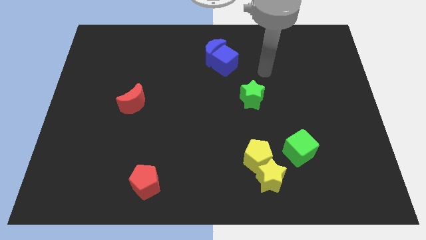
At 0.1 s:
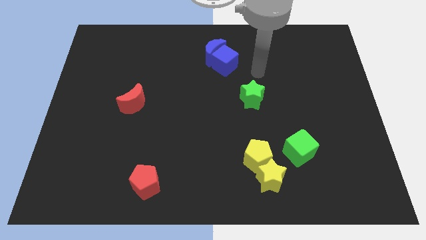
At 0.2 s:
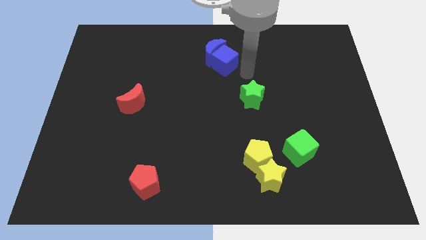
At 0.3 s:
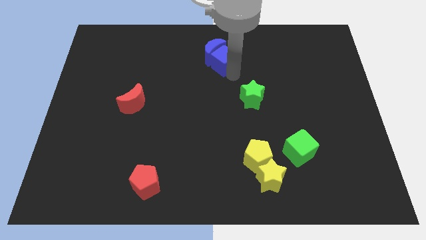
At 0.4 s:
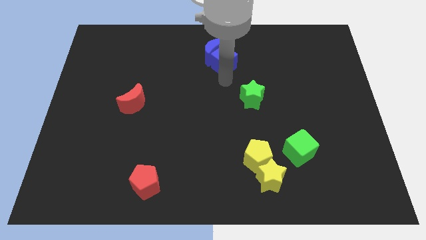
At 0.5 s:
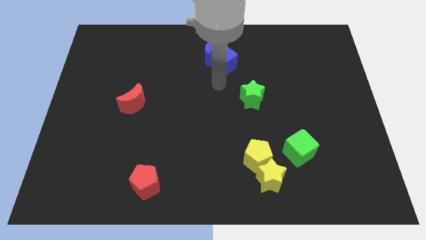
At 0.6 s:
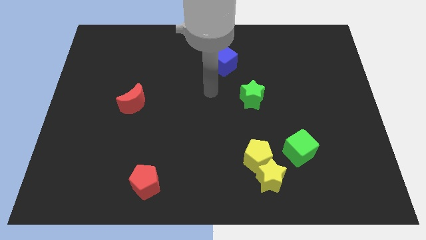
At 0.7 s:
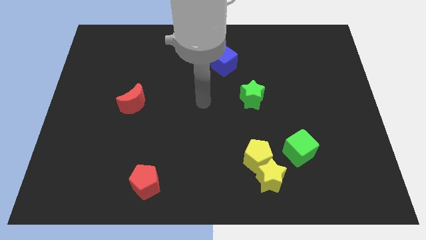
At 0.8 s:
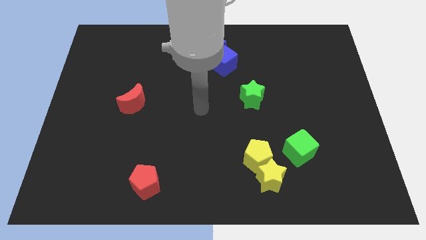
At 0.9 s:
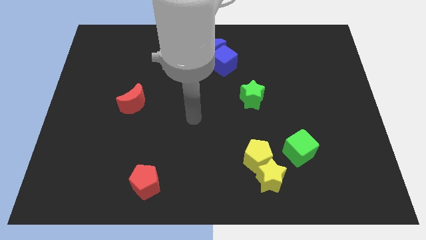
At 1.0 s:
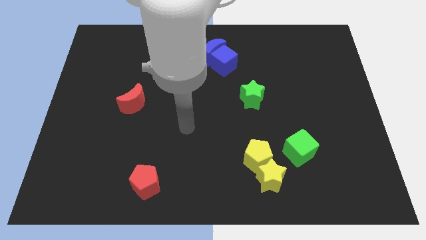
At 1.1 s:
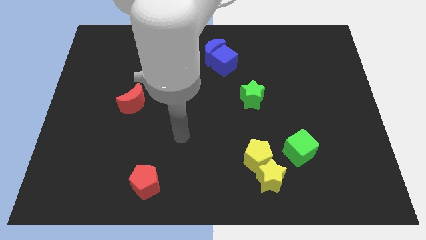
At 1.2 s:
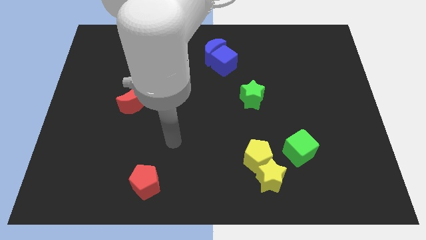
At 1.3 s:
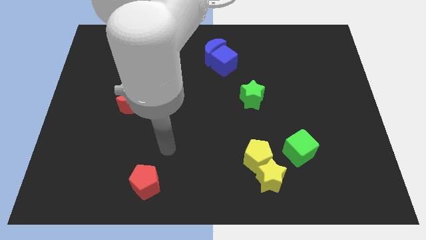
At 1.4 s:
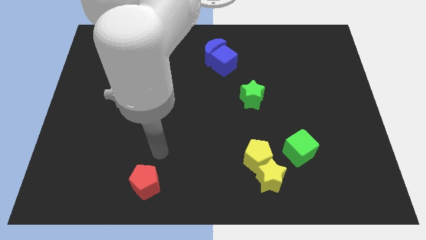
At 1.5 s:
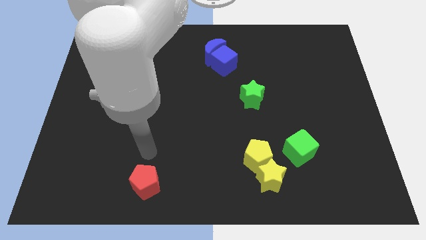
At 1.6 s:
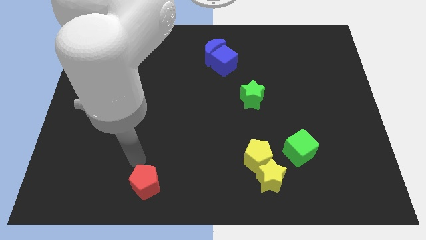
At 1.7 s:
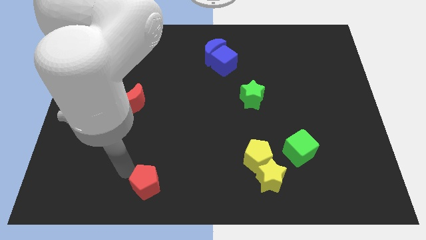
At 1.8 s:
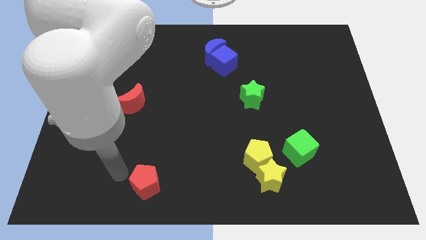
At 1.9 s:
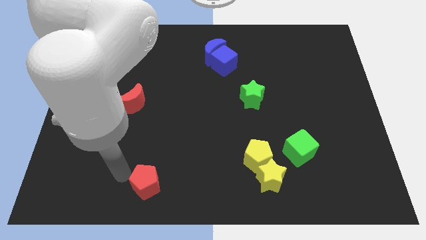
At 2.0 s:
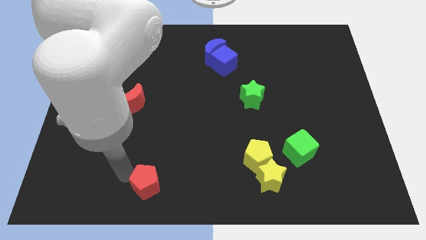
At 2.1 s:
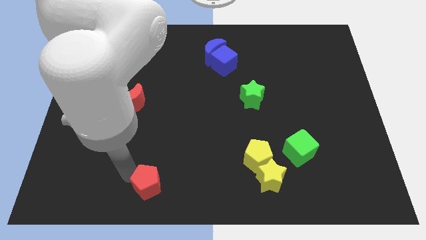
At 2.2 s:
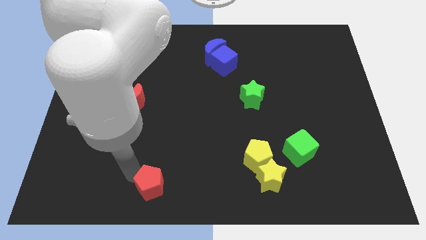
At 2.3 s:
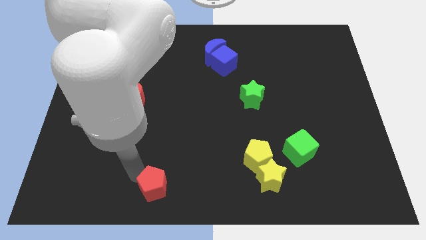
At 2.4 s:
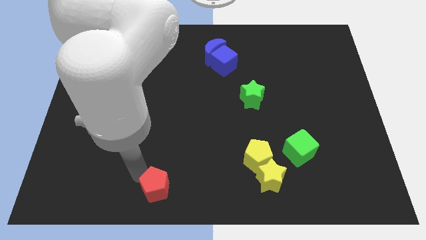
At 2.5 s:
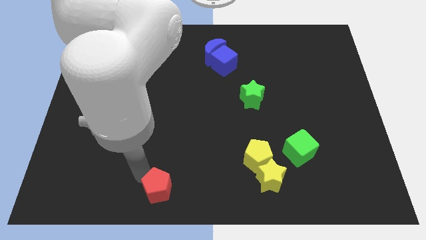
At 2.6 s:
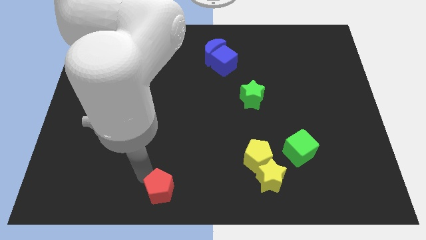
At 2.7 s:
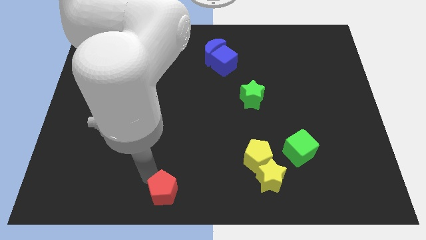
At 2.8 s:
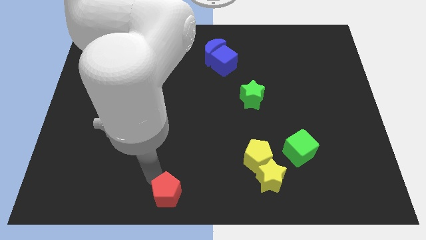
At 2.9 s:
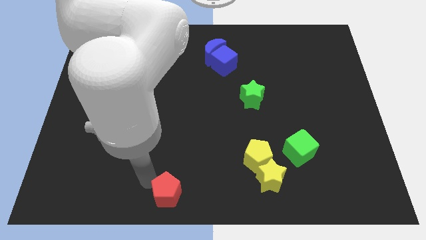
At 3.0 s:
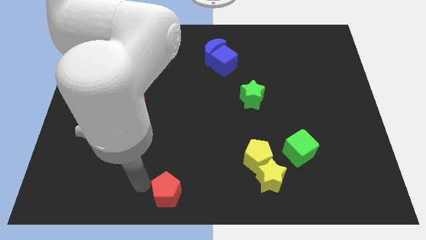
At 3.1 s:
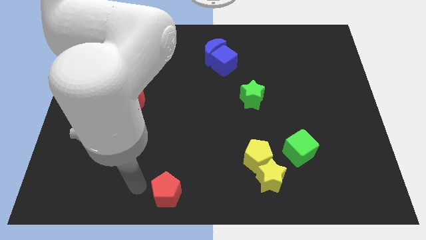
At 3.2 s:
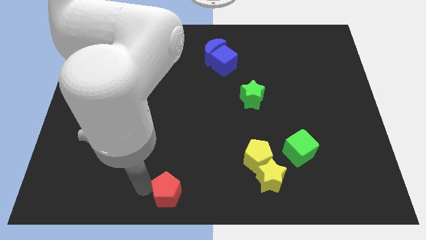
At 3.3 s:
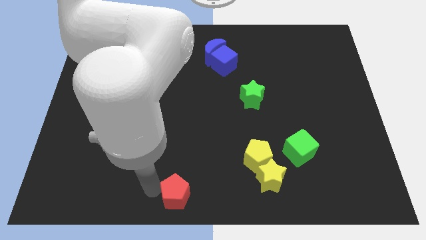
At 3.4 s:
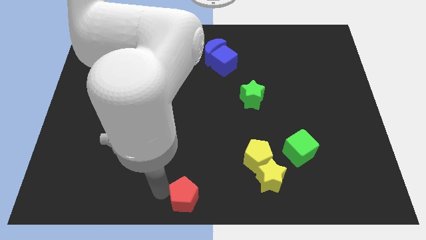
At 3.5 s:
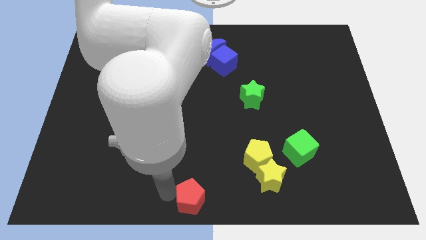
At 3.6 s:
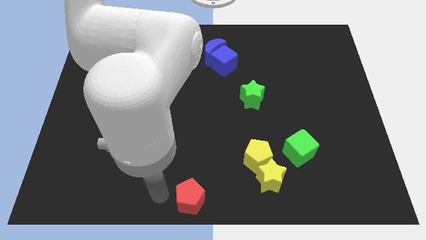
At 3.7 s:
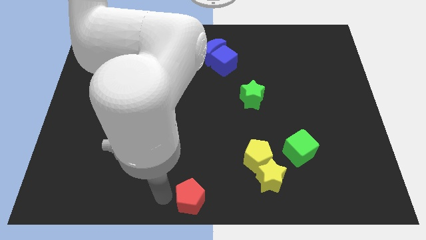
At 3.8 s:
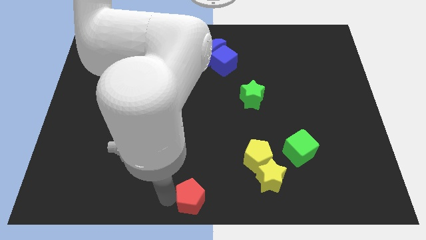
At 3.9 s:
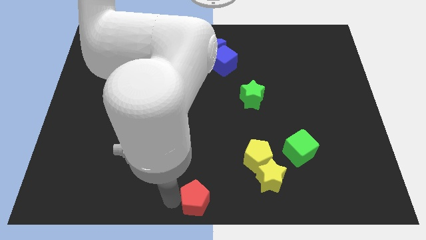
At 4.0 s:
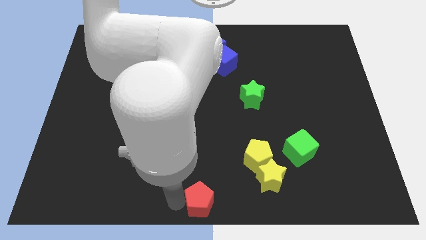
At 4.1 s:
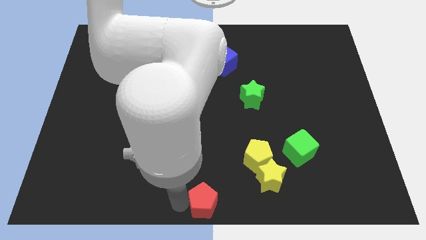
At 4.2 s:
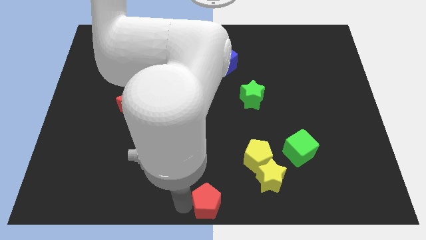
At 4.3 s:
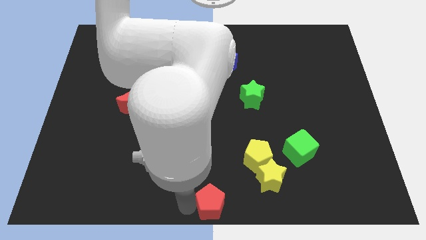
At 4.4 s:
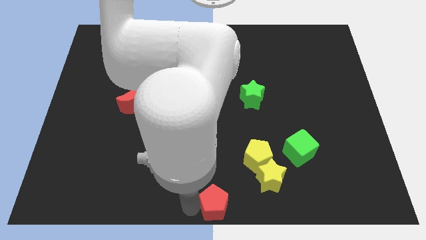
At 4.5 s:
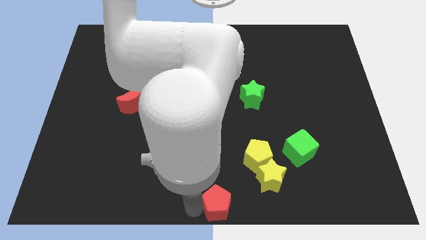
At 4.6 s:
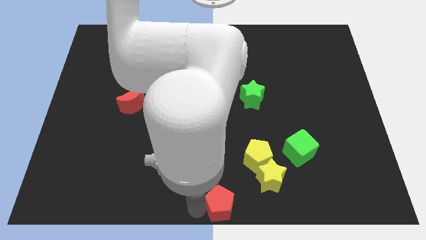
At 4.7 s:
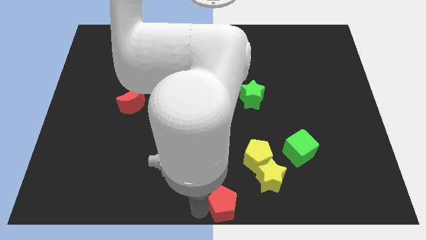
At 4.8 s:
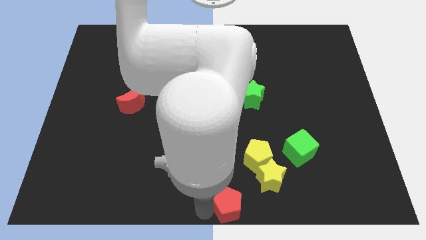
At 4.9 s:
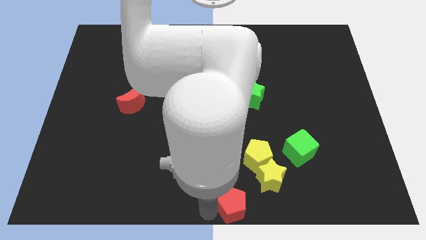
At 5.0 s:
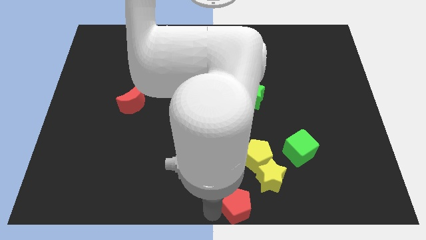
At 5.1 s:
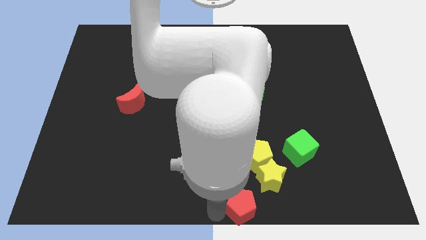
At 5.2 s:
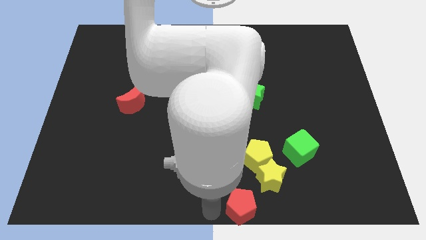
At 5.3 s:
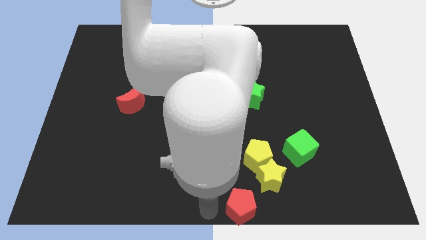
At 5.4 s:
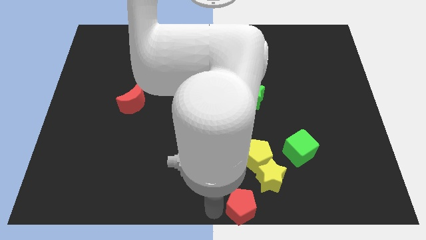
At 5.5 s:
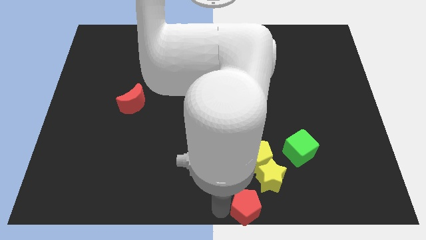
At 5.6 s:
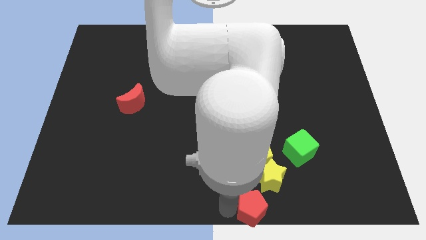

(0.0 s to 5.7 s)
slide the red pentagon to the right

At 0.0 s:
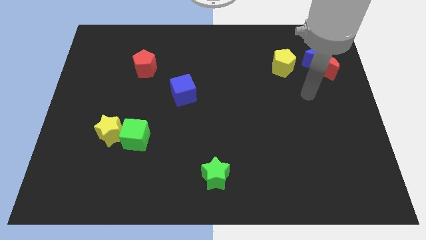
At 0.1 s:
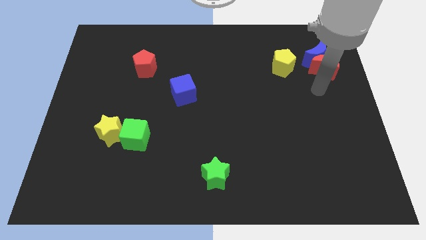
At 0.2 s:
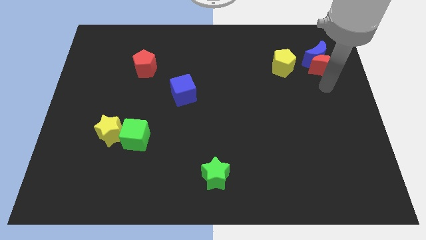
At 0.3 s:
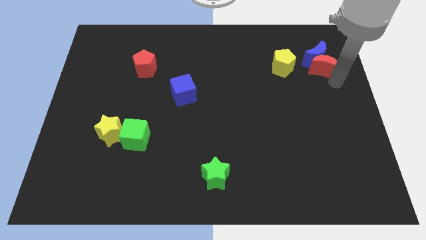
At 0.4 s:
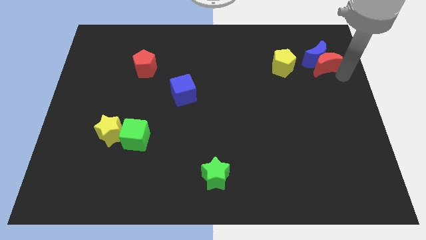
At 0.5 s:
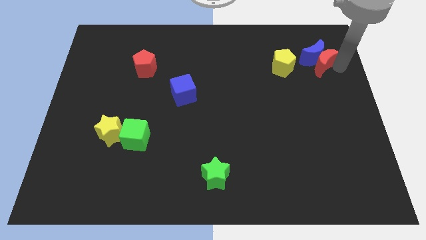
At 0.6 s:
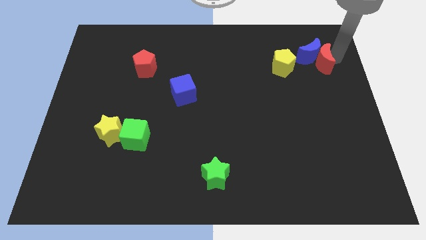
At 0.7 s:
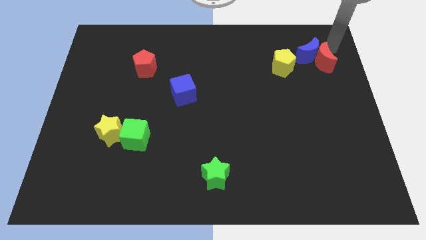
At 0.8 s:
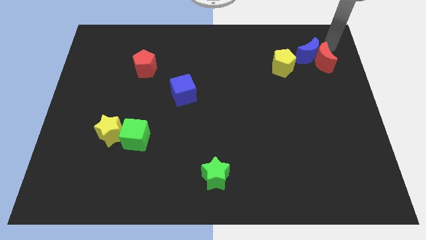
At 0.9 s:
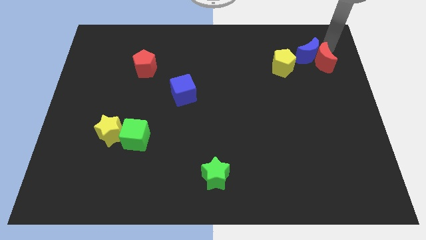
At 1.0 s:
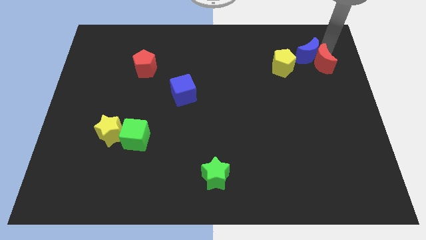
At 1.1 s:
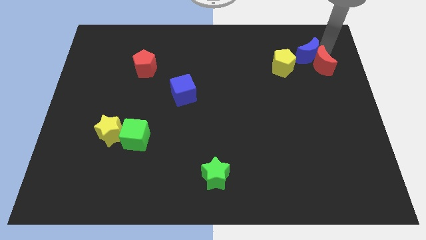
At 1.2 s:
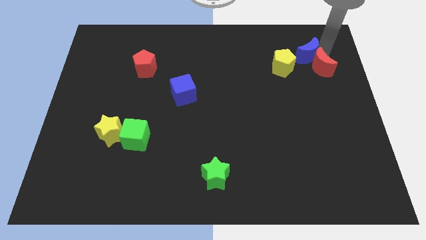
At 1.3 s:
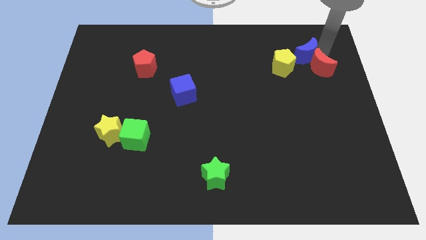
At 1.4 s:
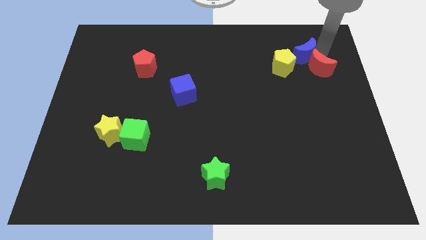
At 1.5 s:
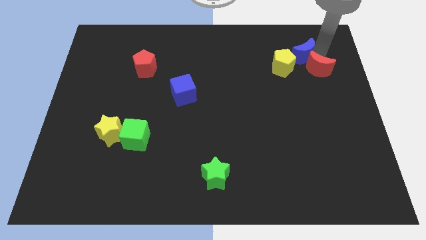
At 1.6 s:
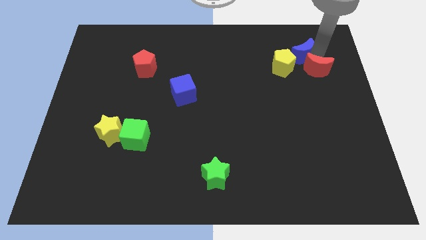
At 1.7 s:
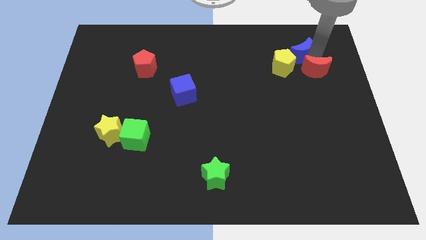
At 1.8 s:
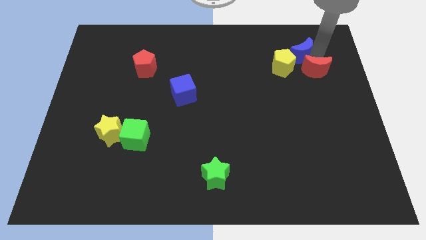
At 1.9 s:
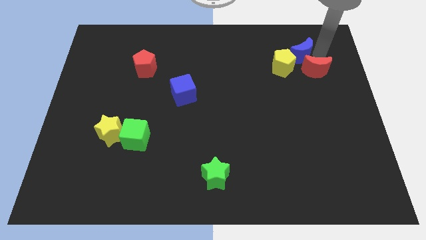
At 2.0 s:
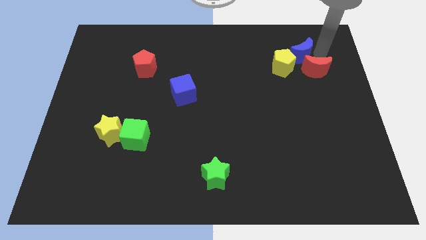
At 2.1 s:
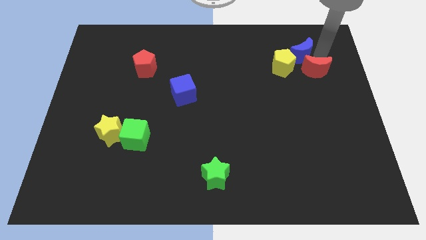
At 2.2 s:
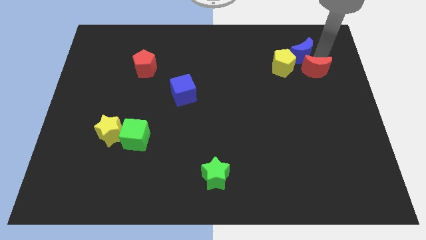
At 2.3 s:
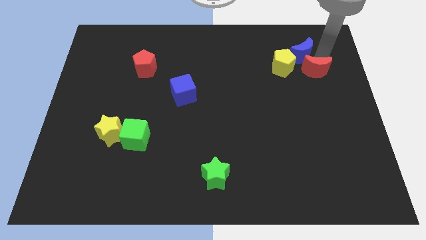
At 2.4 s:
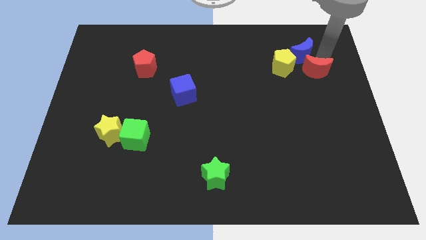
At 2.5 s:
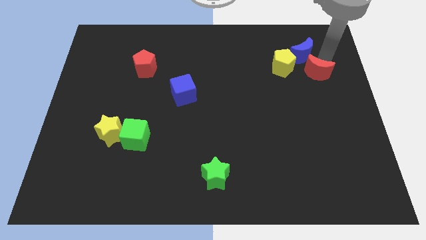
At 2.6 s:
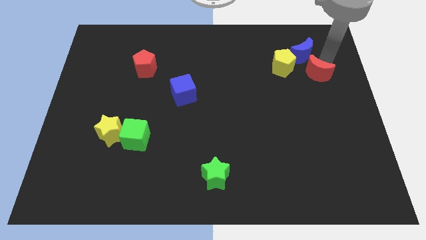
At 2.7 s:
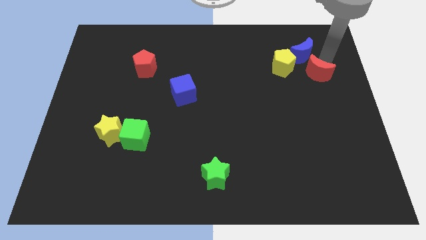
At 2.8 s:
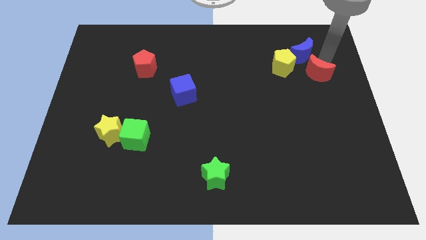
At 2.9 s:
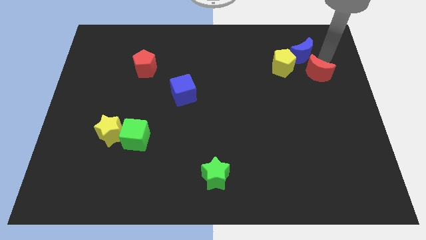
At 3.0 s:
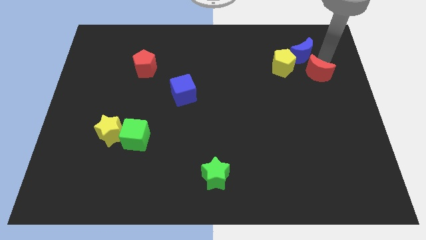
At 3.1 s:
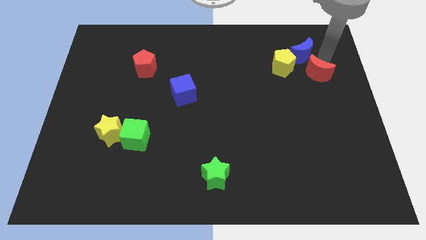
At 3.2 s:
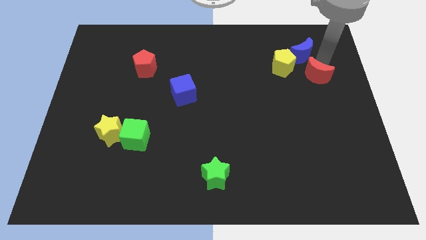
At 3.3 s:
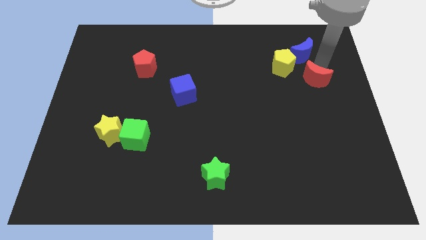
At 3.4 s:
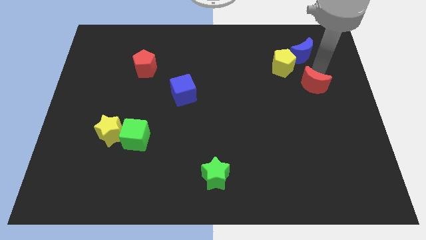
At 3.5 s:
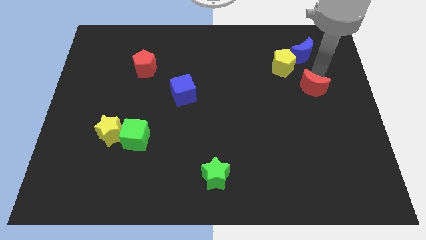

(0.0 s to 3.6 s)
move the red moon diagonally down and to the left a bit
